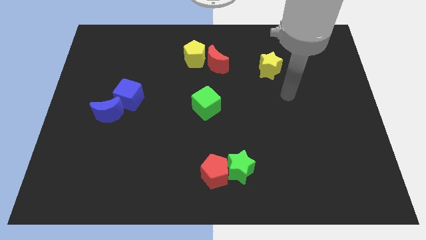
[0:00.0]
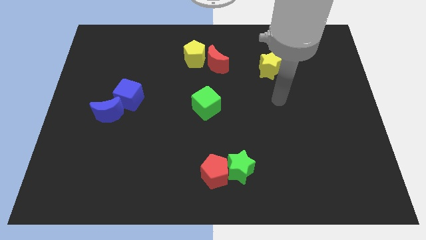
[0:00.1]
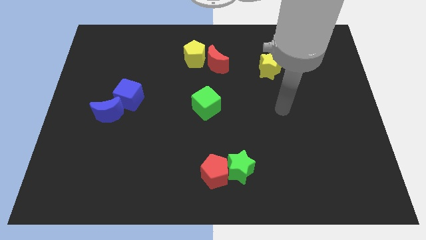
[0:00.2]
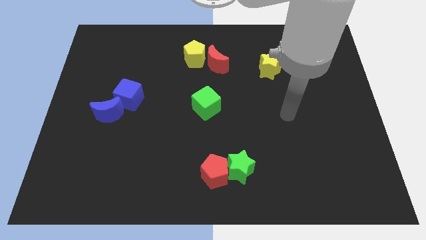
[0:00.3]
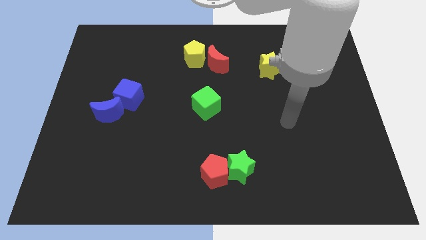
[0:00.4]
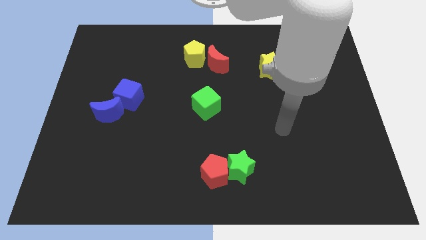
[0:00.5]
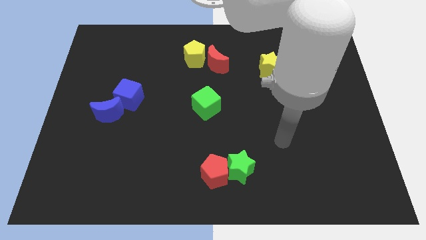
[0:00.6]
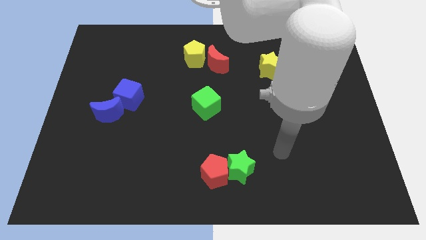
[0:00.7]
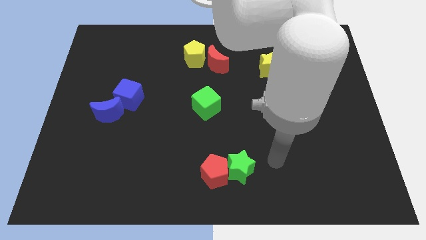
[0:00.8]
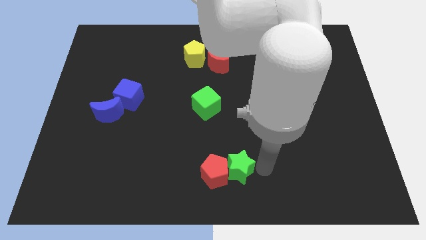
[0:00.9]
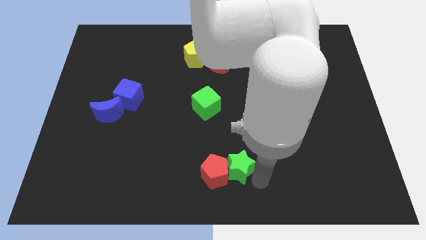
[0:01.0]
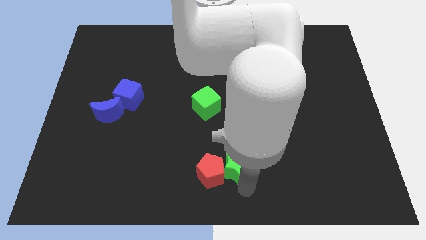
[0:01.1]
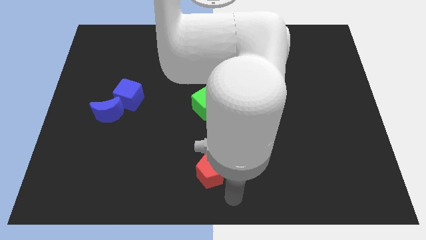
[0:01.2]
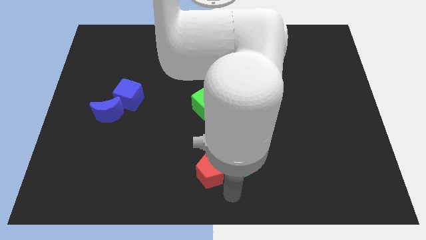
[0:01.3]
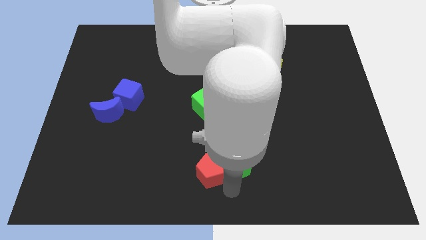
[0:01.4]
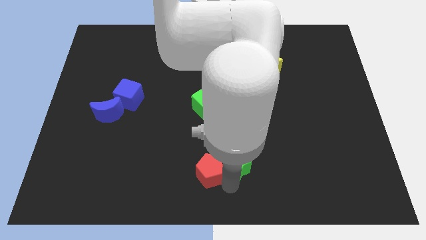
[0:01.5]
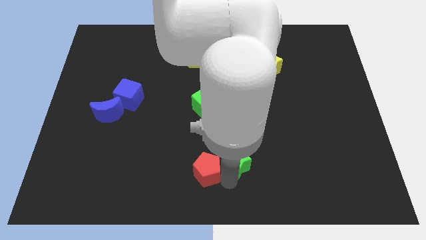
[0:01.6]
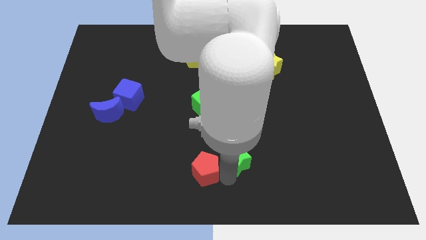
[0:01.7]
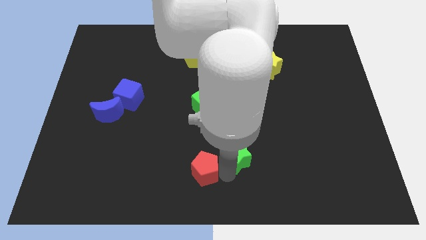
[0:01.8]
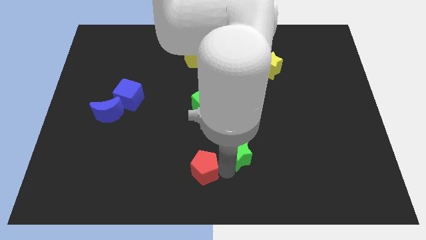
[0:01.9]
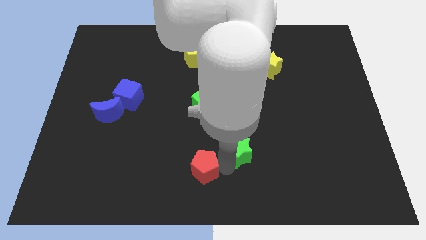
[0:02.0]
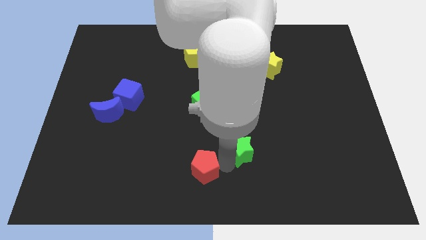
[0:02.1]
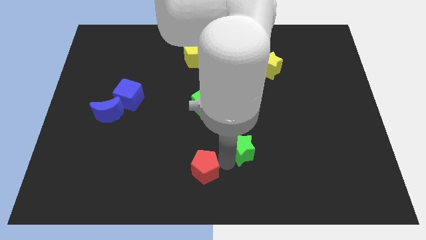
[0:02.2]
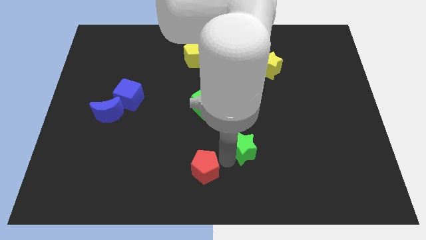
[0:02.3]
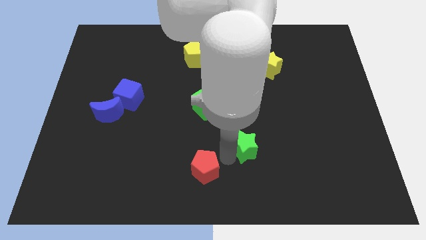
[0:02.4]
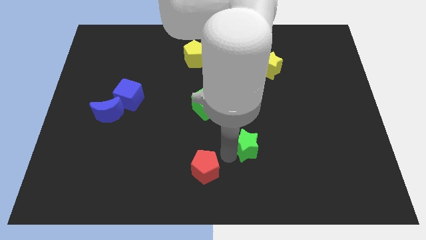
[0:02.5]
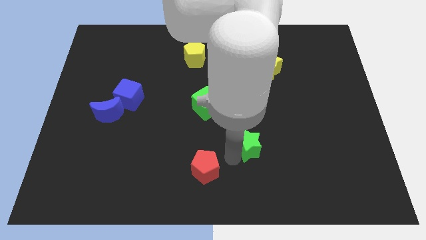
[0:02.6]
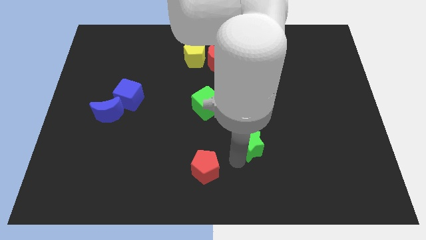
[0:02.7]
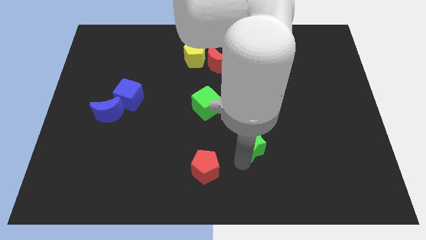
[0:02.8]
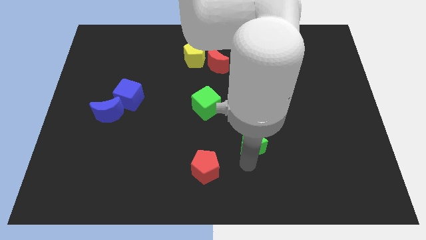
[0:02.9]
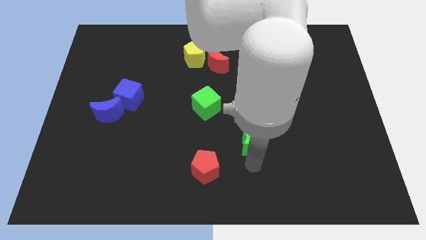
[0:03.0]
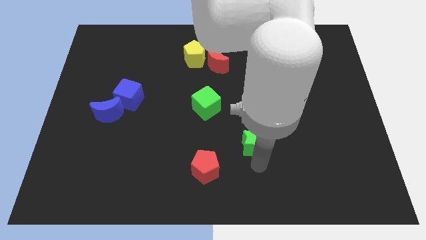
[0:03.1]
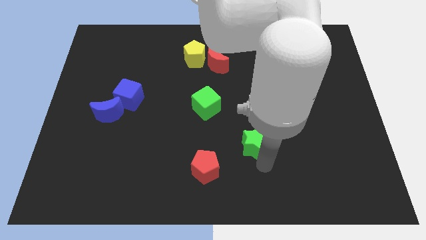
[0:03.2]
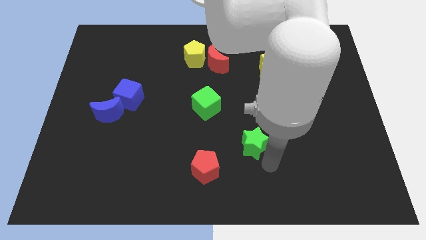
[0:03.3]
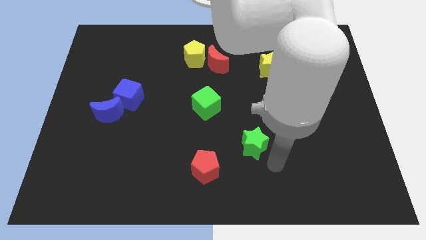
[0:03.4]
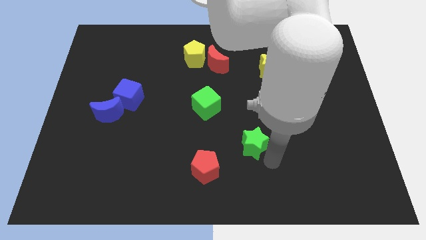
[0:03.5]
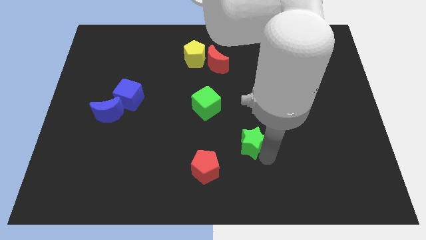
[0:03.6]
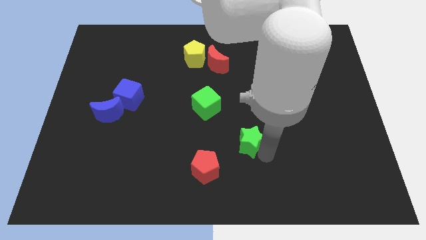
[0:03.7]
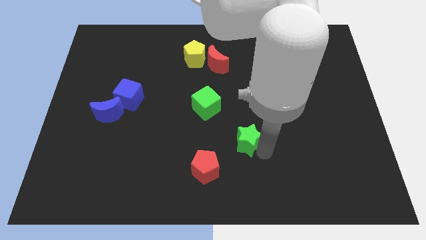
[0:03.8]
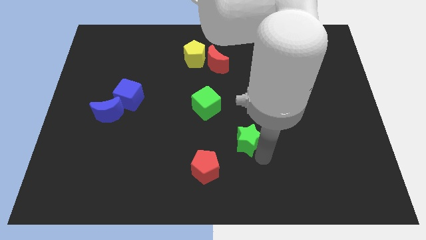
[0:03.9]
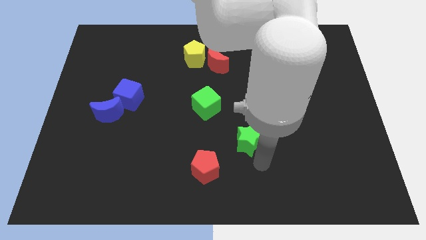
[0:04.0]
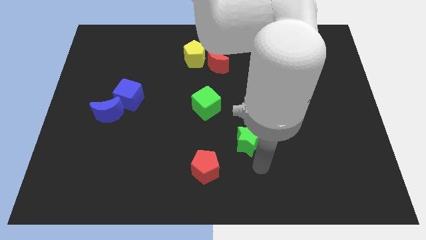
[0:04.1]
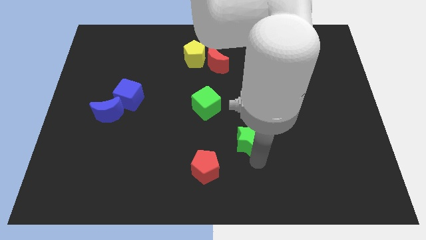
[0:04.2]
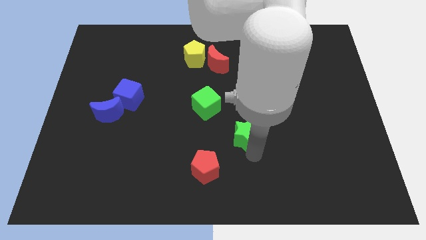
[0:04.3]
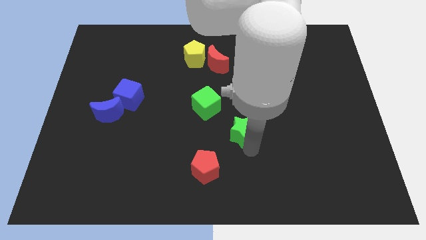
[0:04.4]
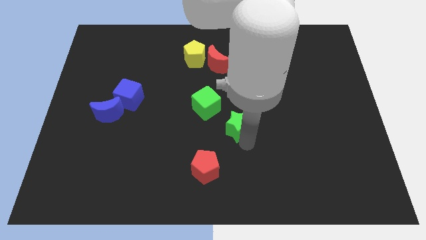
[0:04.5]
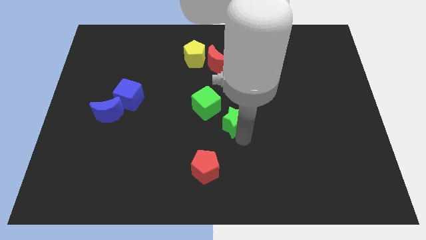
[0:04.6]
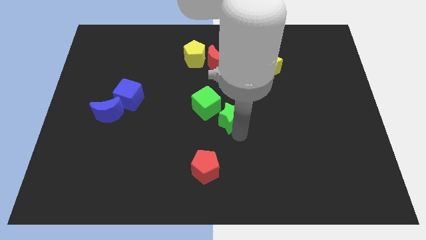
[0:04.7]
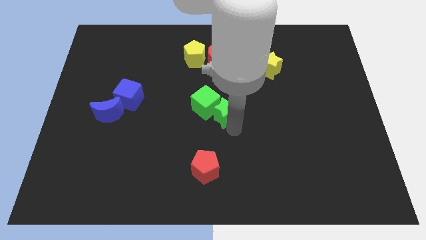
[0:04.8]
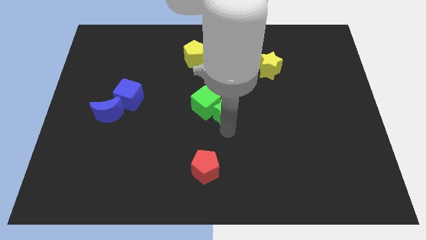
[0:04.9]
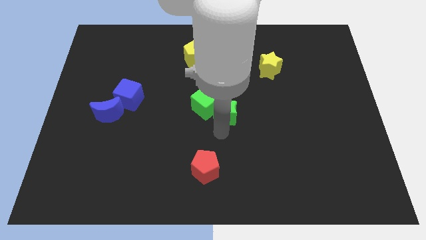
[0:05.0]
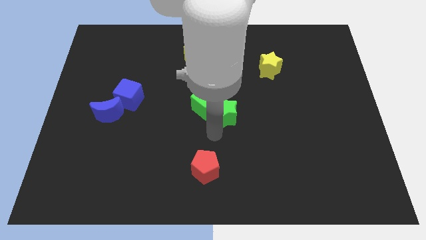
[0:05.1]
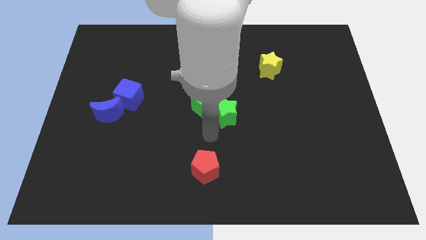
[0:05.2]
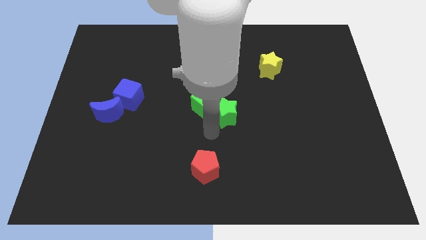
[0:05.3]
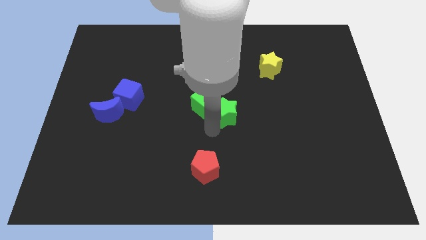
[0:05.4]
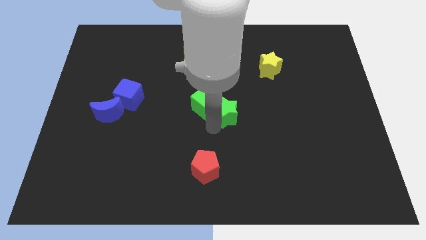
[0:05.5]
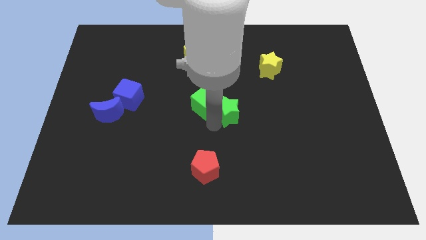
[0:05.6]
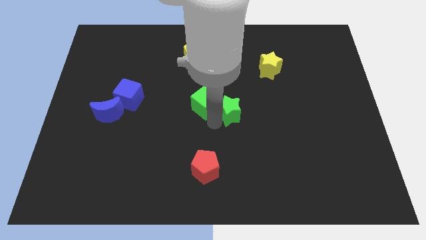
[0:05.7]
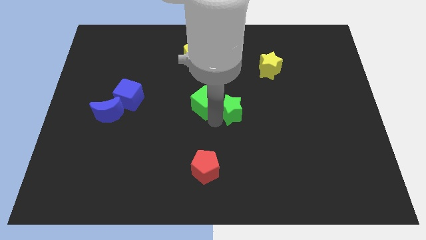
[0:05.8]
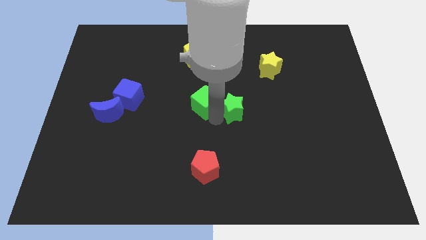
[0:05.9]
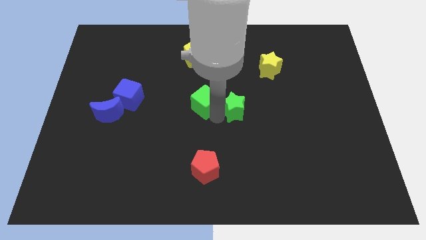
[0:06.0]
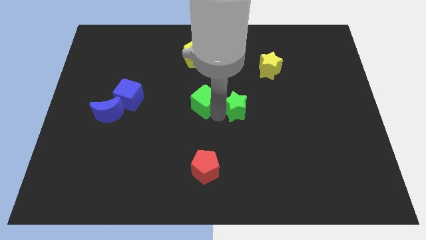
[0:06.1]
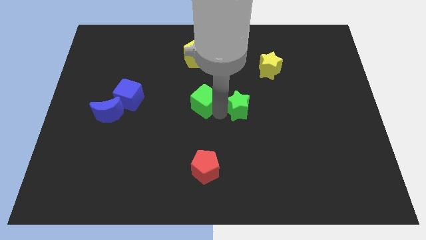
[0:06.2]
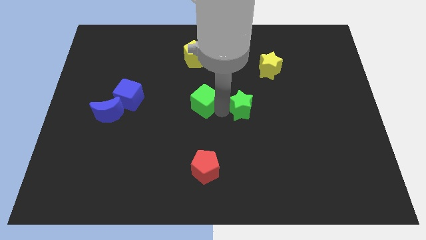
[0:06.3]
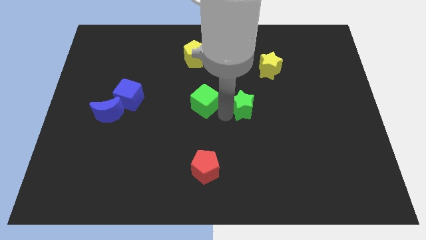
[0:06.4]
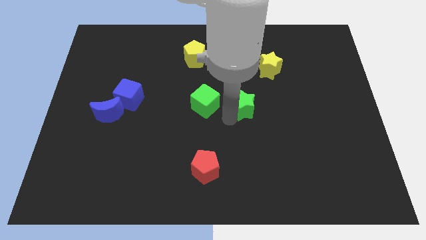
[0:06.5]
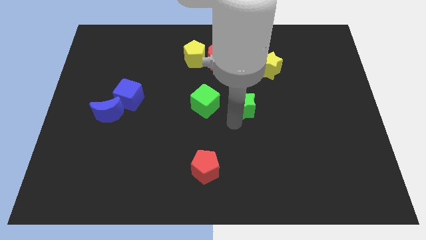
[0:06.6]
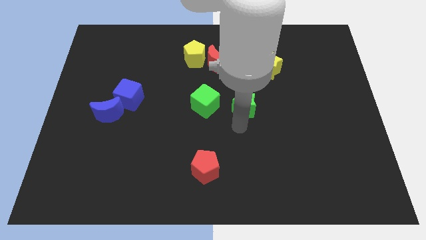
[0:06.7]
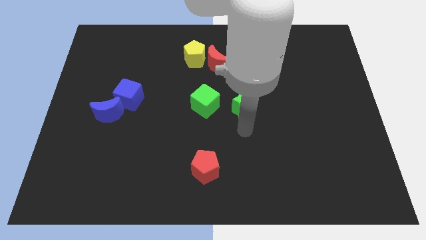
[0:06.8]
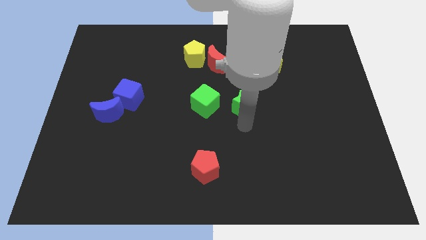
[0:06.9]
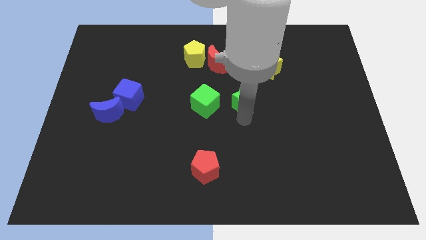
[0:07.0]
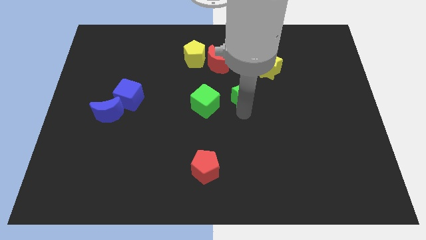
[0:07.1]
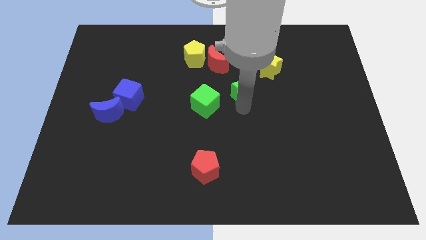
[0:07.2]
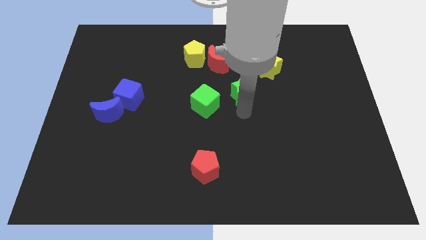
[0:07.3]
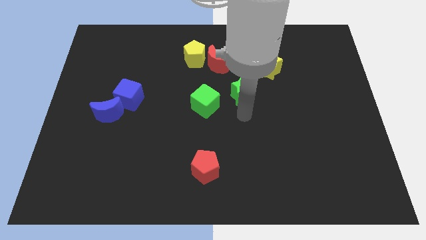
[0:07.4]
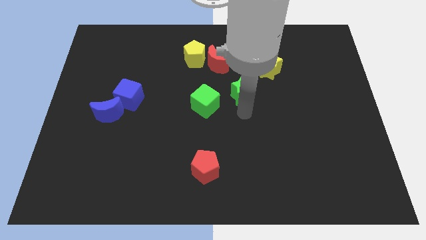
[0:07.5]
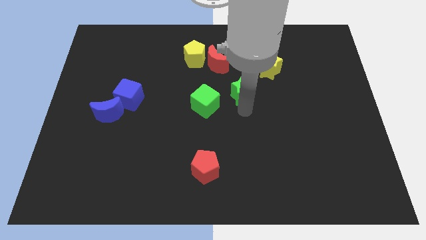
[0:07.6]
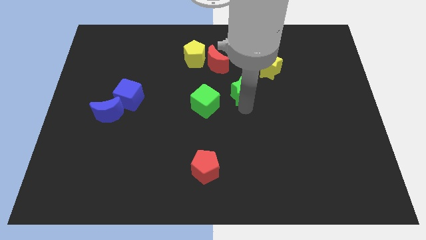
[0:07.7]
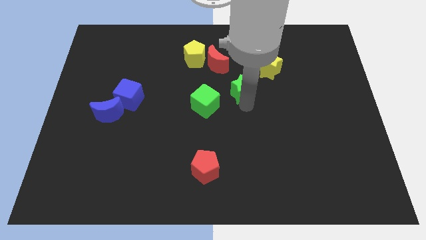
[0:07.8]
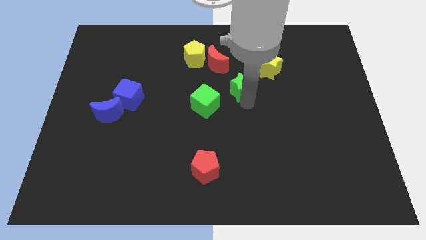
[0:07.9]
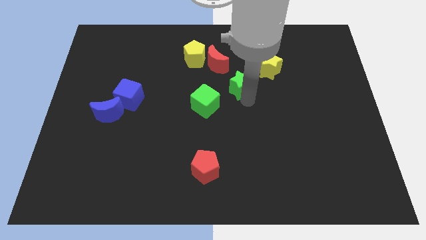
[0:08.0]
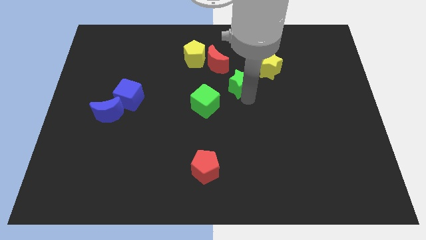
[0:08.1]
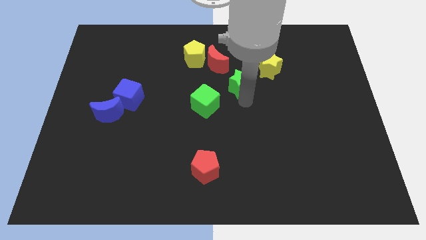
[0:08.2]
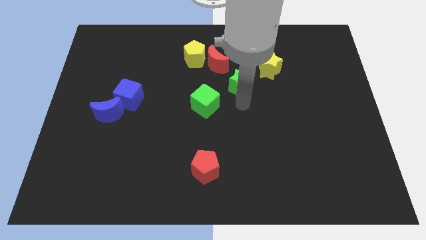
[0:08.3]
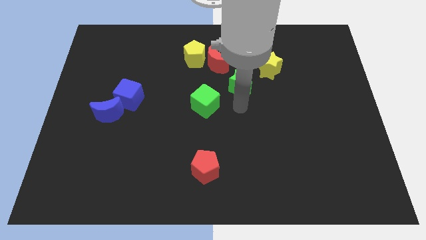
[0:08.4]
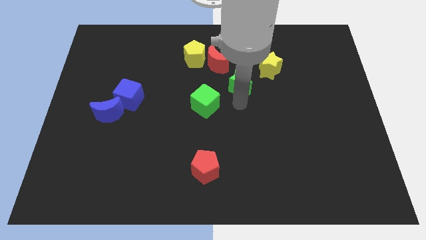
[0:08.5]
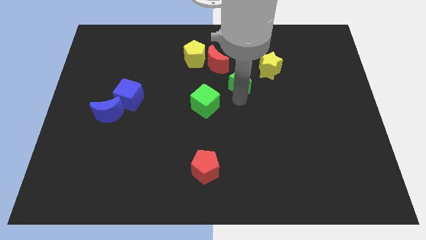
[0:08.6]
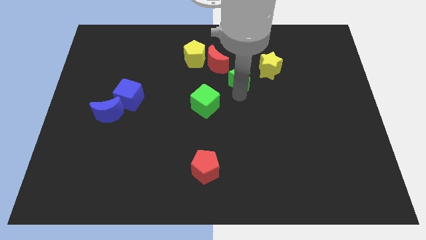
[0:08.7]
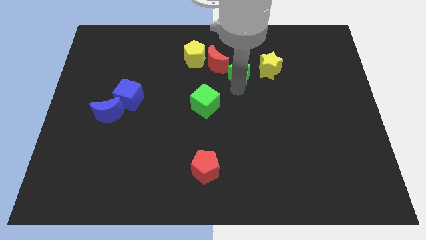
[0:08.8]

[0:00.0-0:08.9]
put the green star just right of the red moon
